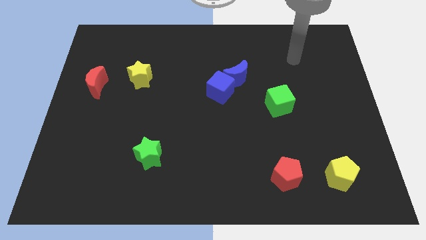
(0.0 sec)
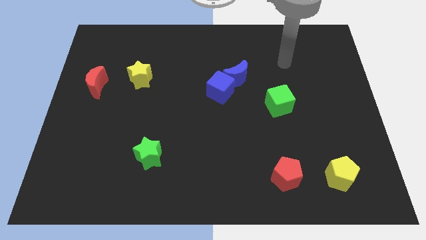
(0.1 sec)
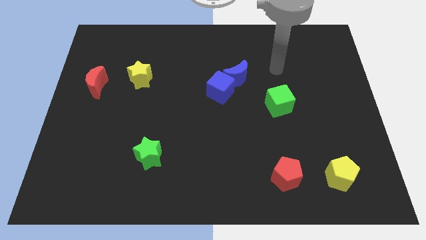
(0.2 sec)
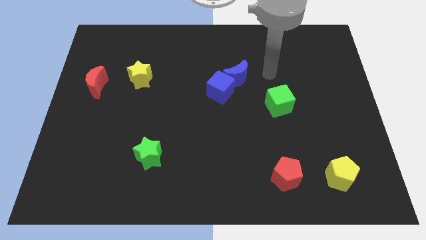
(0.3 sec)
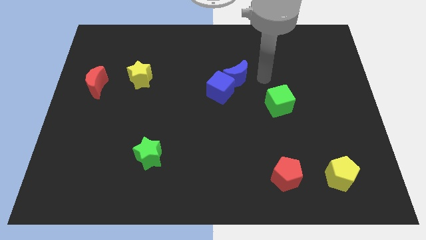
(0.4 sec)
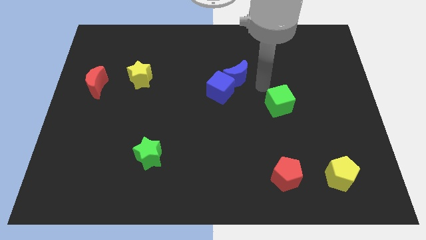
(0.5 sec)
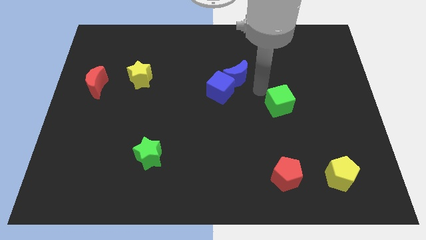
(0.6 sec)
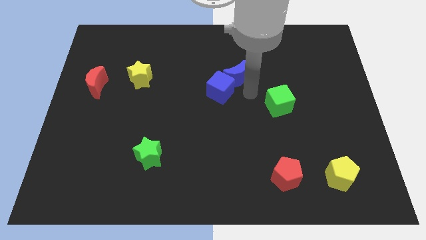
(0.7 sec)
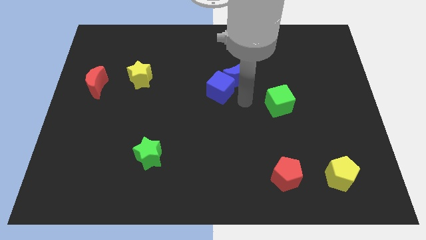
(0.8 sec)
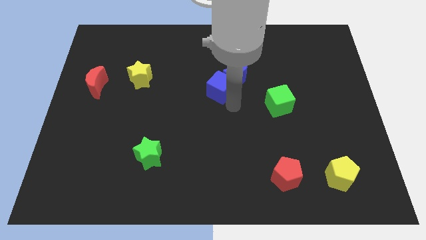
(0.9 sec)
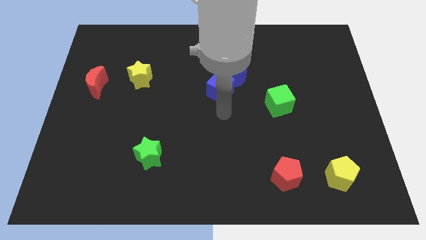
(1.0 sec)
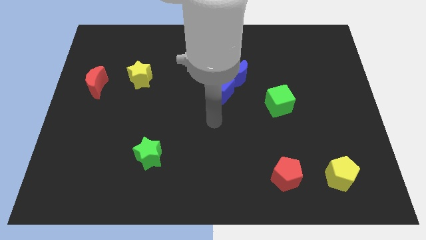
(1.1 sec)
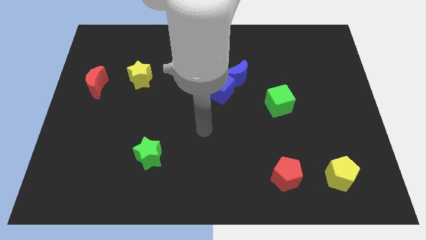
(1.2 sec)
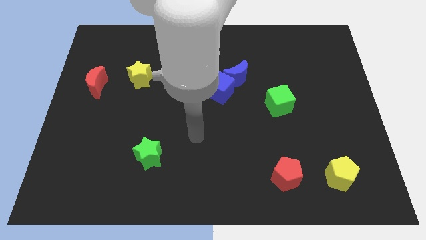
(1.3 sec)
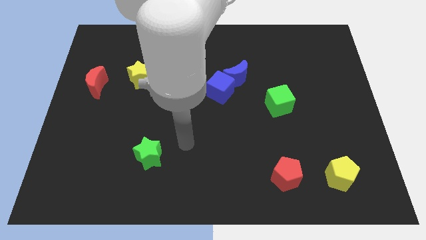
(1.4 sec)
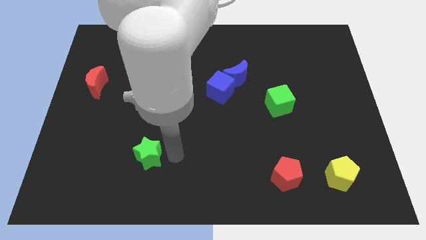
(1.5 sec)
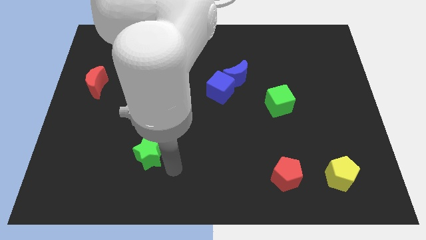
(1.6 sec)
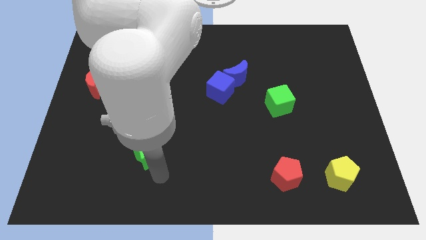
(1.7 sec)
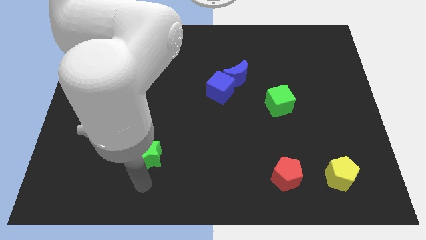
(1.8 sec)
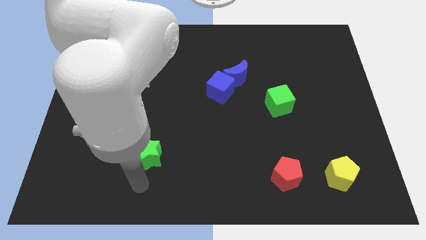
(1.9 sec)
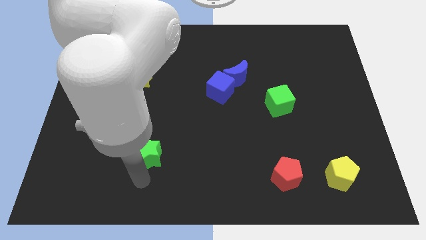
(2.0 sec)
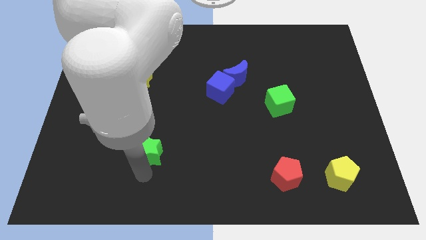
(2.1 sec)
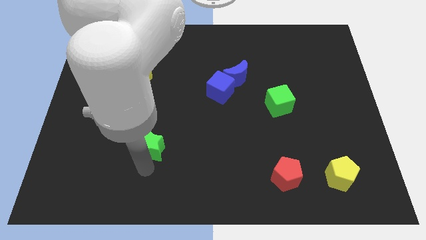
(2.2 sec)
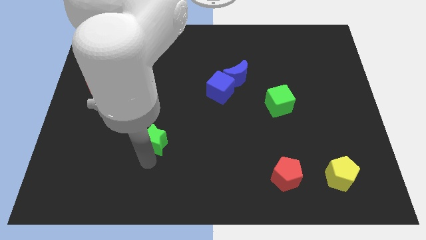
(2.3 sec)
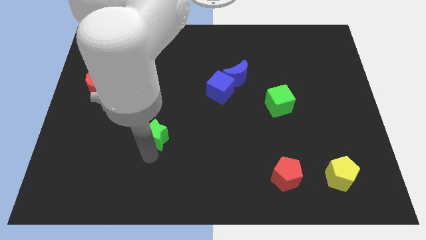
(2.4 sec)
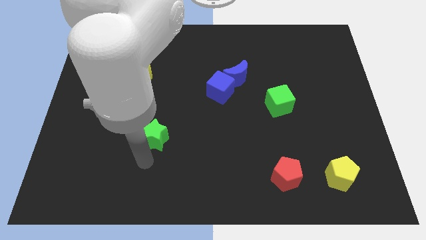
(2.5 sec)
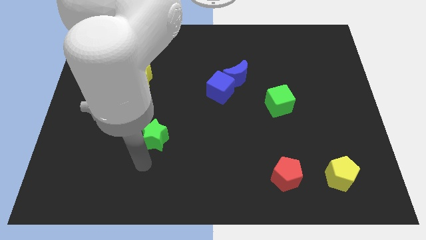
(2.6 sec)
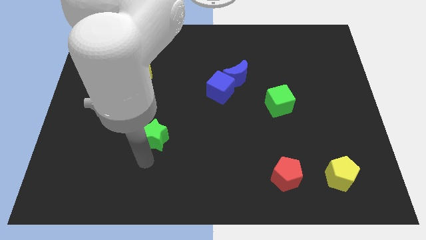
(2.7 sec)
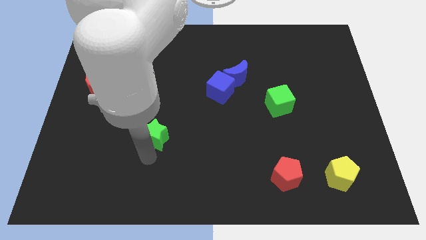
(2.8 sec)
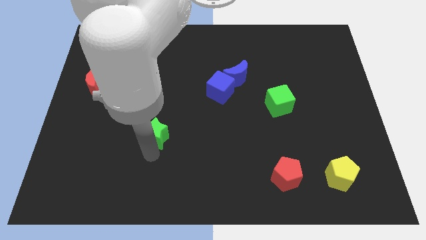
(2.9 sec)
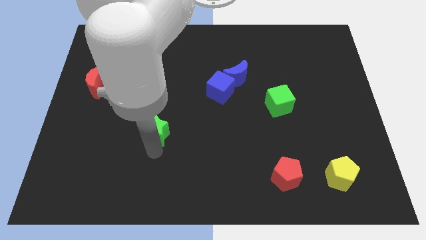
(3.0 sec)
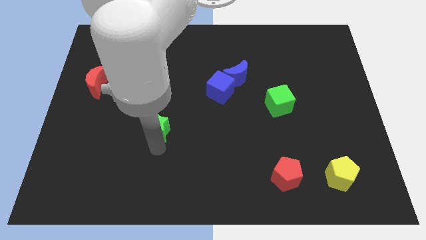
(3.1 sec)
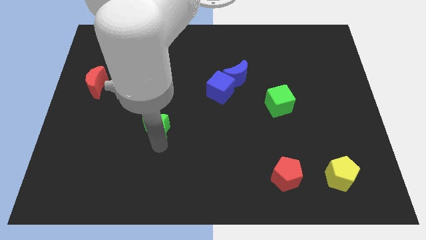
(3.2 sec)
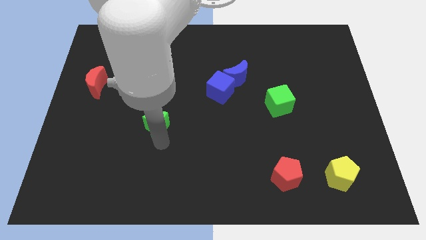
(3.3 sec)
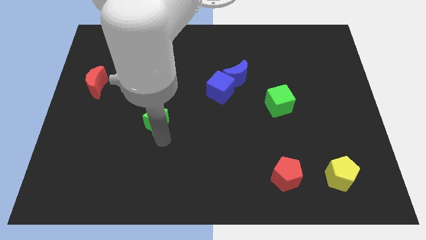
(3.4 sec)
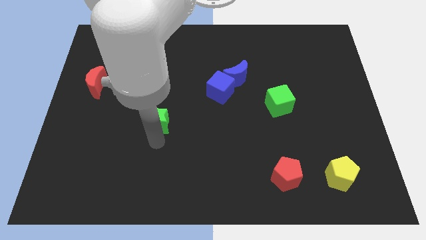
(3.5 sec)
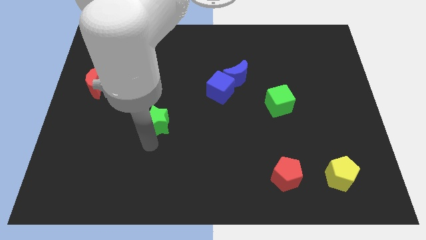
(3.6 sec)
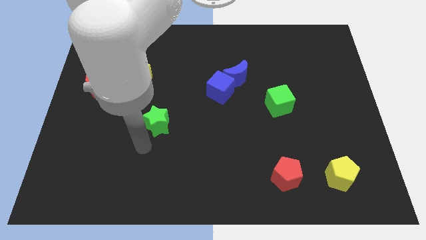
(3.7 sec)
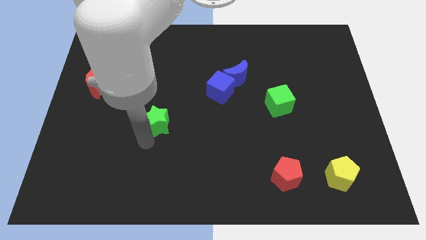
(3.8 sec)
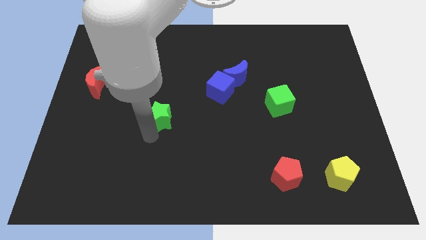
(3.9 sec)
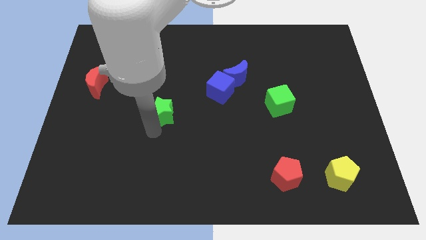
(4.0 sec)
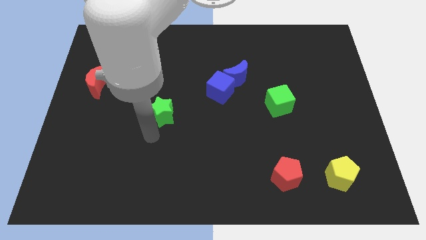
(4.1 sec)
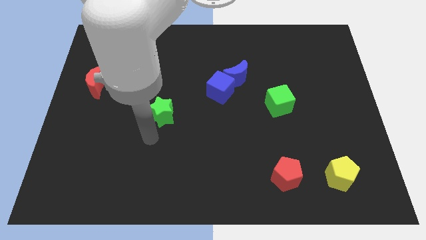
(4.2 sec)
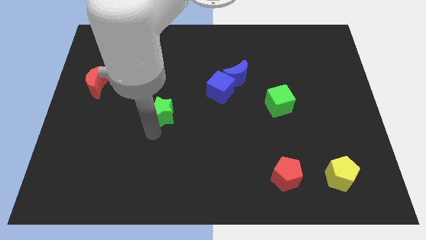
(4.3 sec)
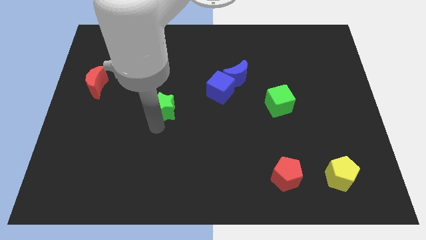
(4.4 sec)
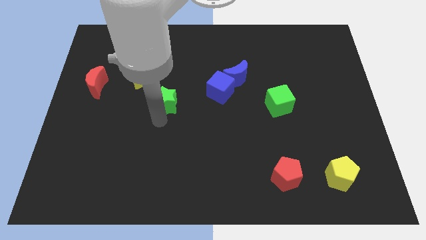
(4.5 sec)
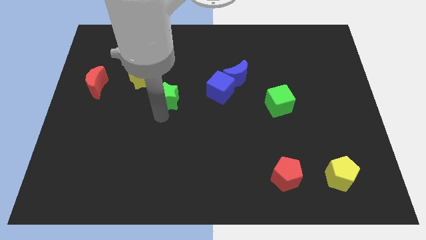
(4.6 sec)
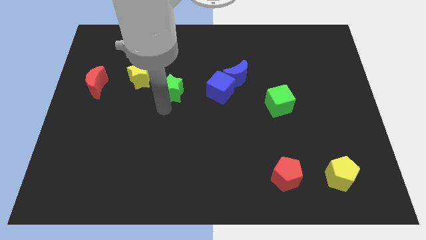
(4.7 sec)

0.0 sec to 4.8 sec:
push the green star right of the yellow star

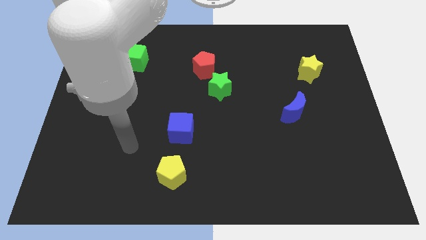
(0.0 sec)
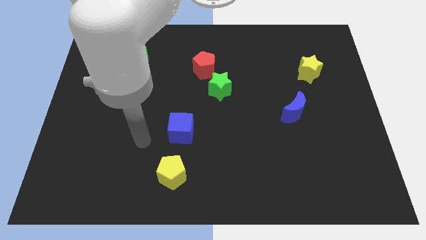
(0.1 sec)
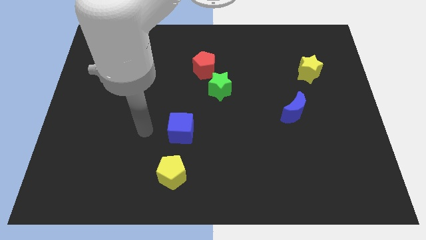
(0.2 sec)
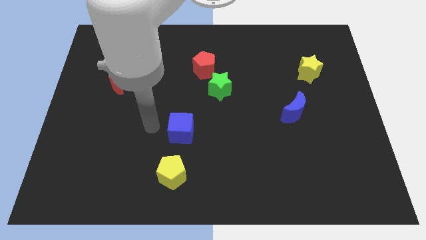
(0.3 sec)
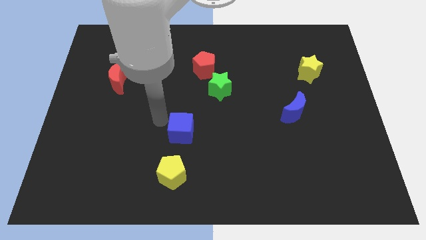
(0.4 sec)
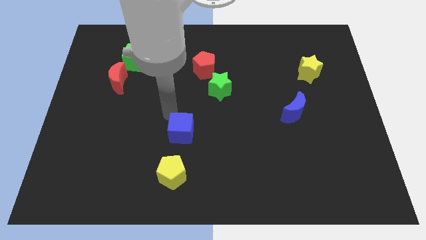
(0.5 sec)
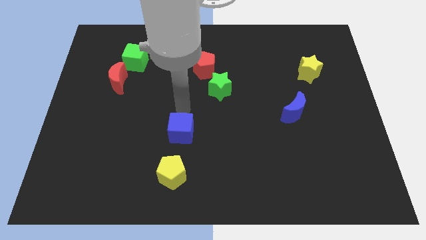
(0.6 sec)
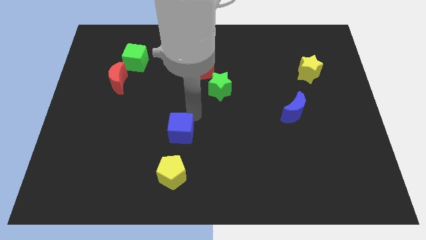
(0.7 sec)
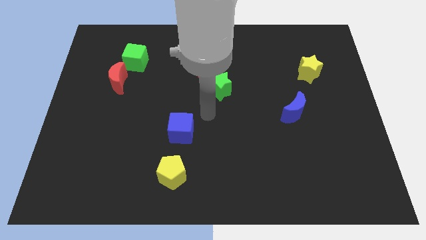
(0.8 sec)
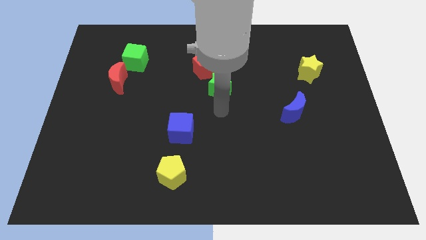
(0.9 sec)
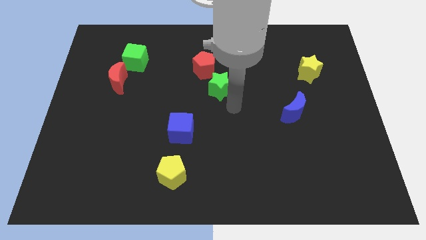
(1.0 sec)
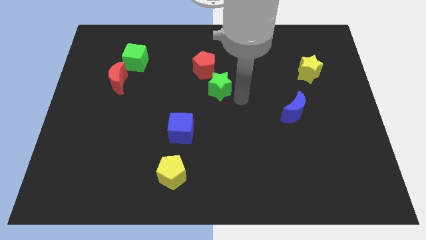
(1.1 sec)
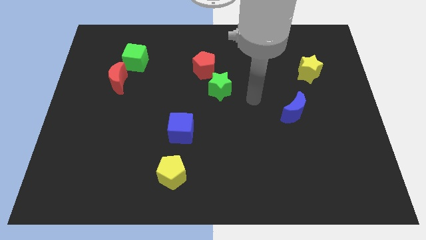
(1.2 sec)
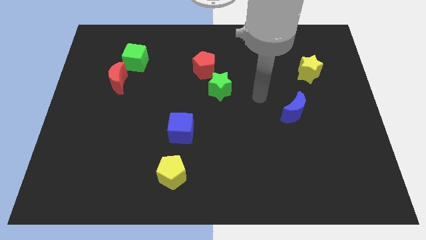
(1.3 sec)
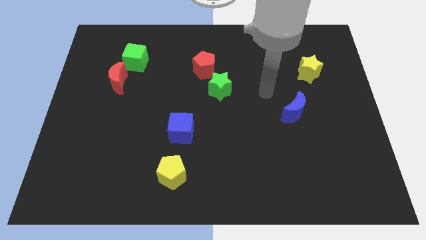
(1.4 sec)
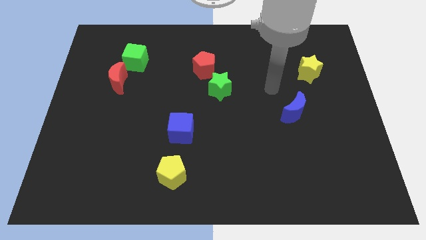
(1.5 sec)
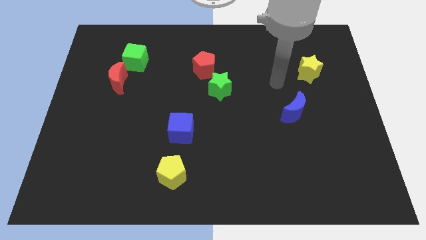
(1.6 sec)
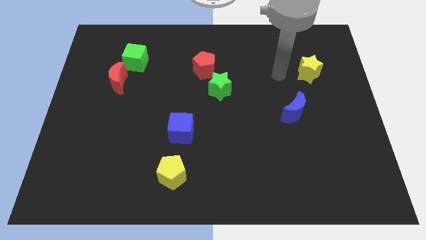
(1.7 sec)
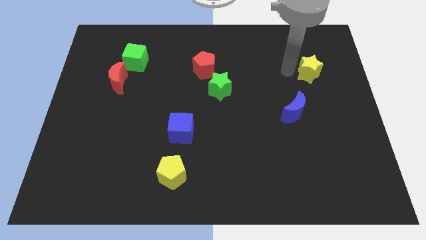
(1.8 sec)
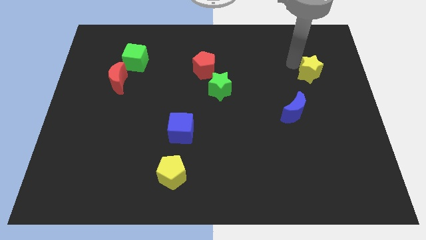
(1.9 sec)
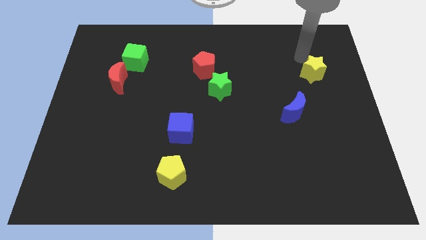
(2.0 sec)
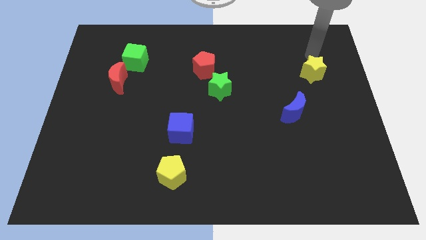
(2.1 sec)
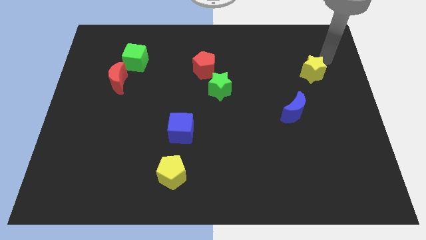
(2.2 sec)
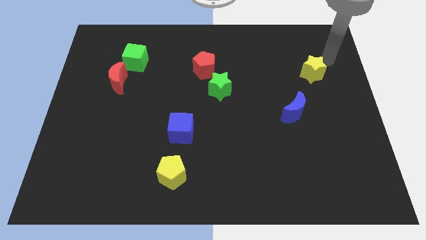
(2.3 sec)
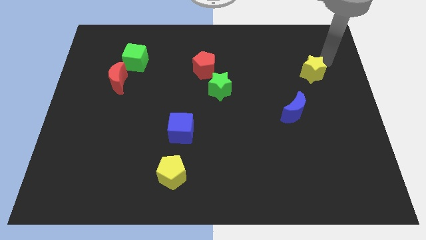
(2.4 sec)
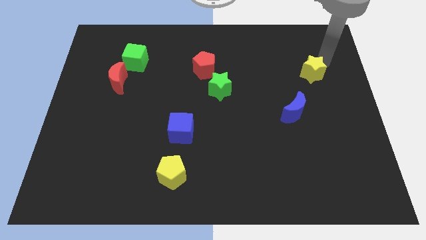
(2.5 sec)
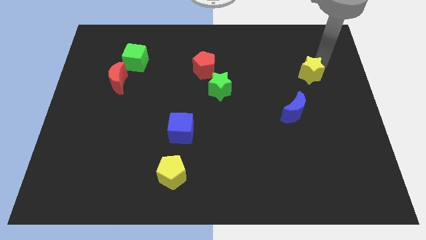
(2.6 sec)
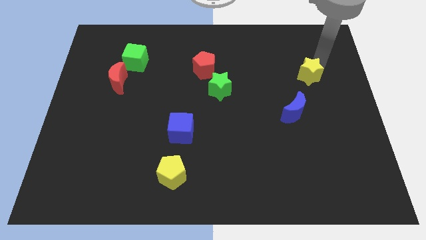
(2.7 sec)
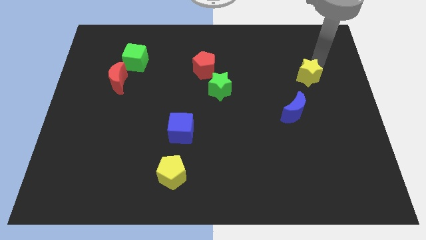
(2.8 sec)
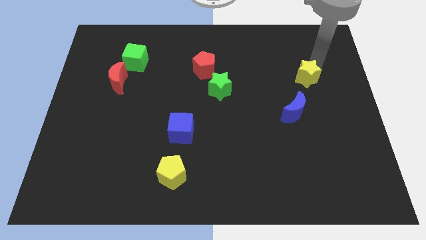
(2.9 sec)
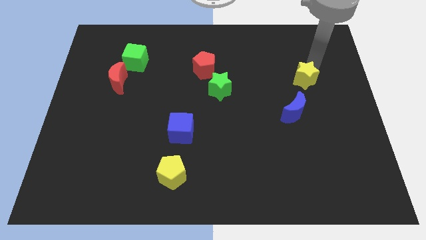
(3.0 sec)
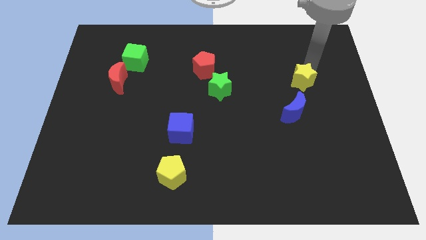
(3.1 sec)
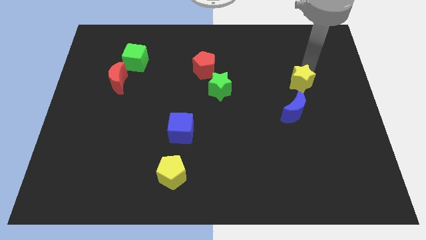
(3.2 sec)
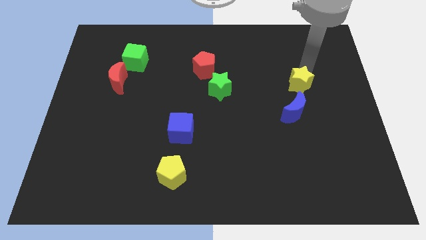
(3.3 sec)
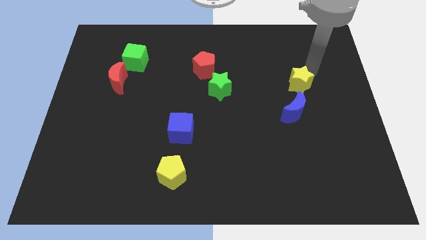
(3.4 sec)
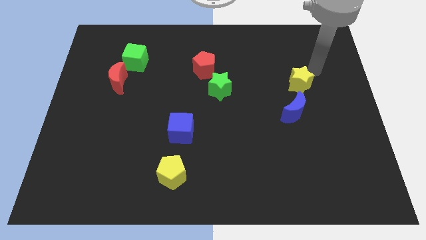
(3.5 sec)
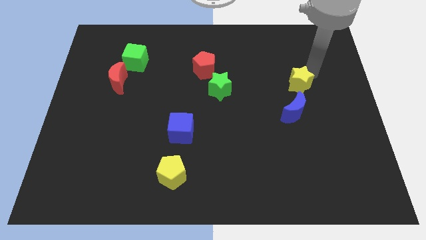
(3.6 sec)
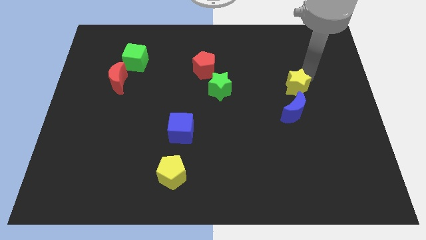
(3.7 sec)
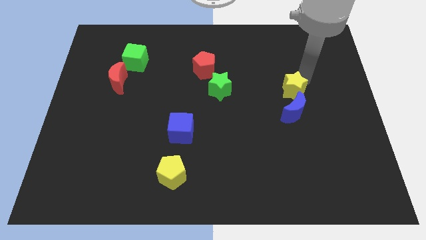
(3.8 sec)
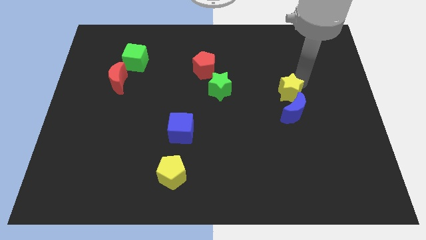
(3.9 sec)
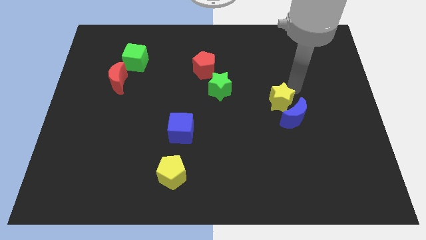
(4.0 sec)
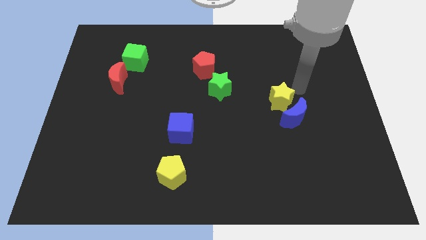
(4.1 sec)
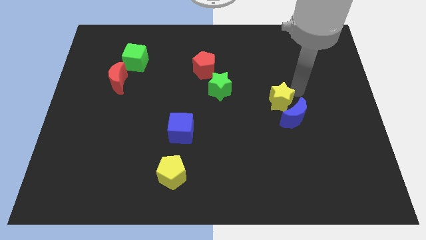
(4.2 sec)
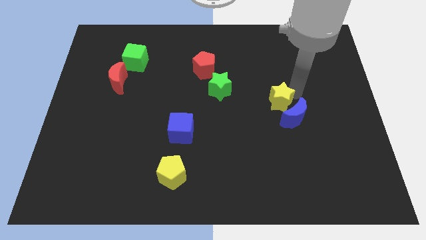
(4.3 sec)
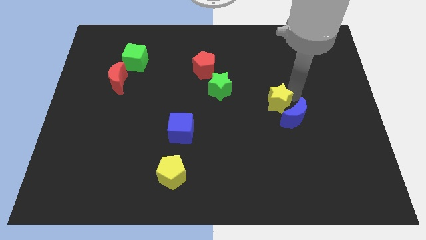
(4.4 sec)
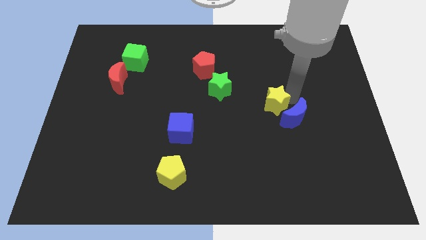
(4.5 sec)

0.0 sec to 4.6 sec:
slide the yellow star to the left of the blue moon
